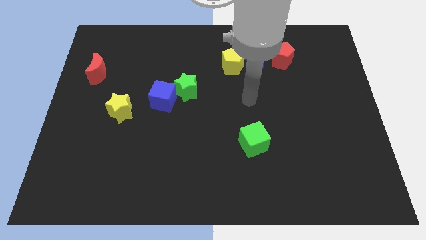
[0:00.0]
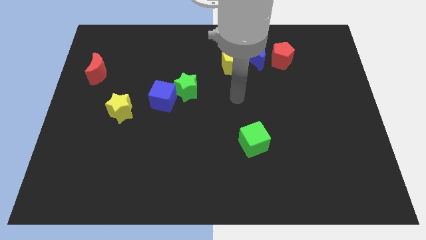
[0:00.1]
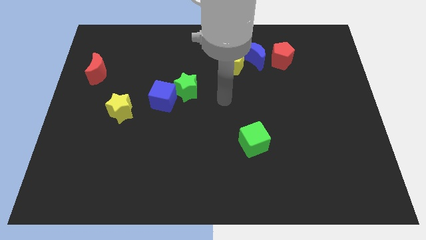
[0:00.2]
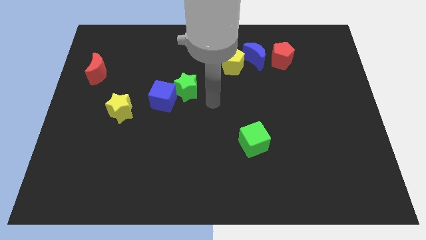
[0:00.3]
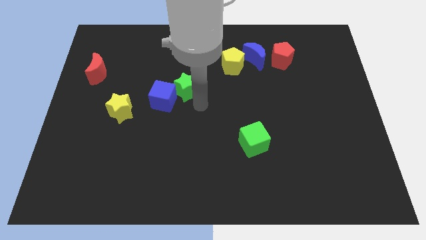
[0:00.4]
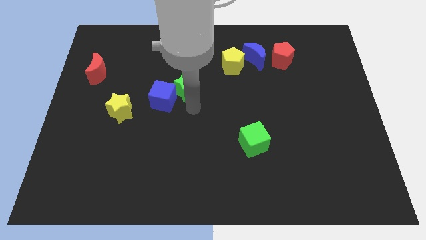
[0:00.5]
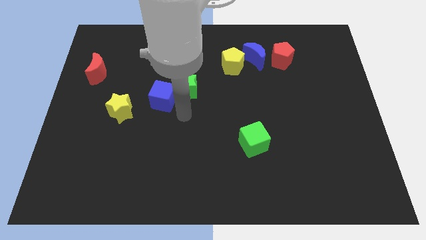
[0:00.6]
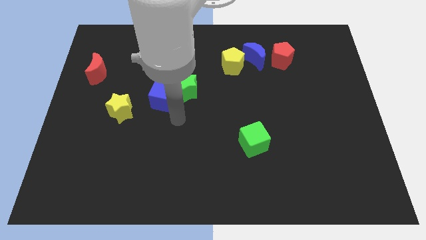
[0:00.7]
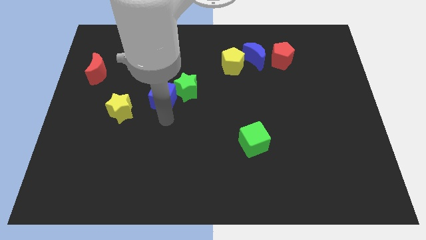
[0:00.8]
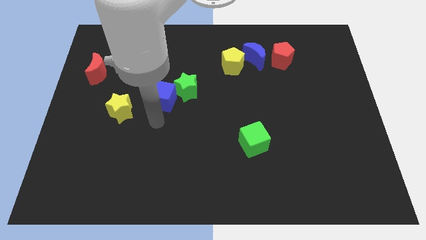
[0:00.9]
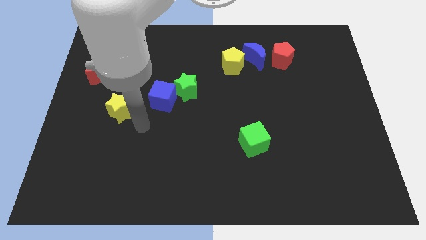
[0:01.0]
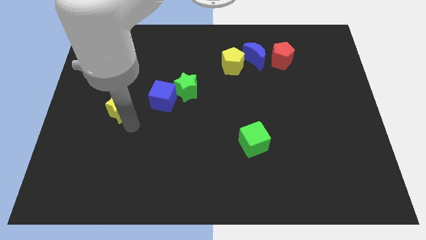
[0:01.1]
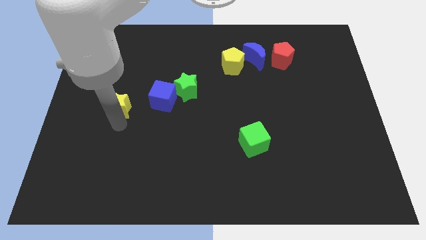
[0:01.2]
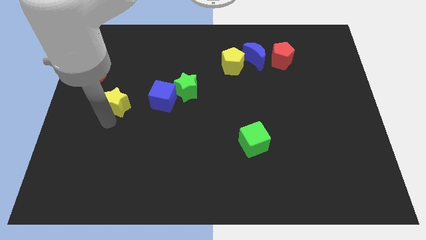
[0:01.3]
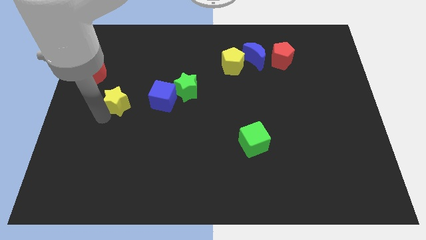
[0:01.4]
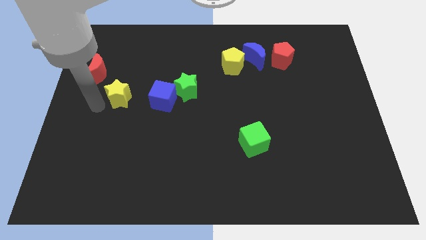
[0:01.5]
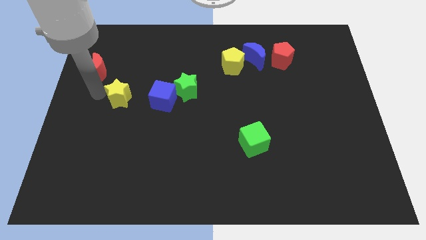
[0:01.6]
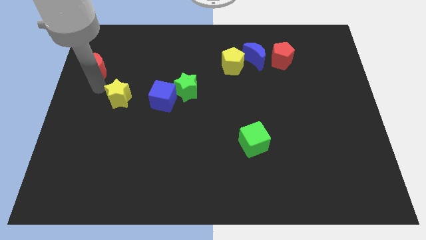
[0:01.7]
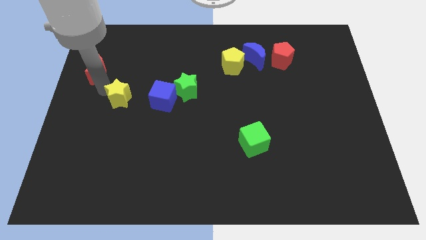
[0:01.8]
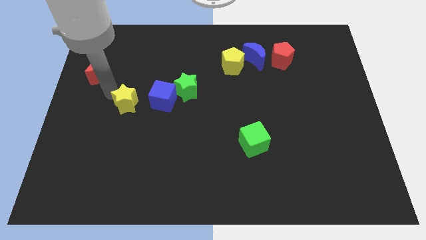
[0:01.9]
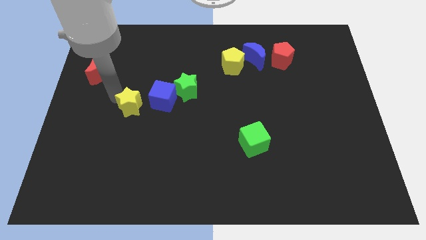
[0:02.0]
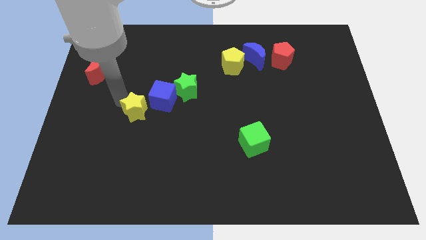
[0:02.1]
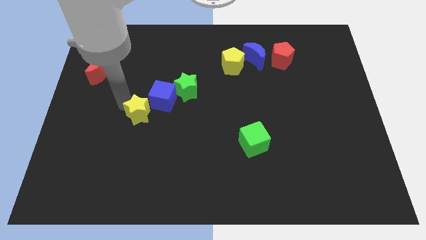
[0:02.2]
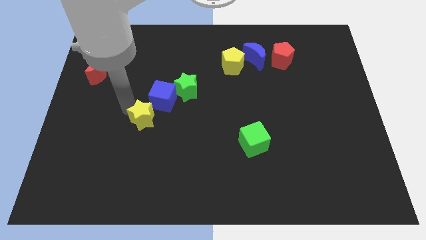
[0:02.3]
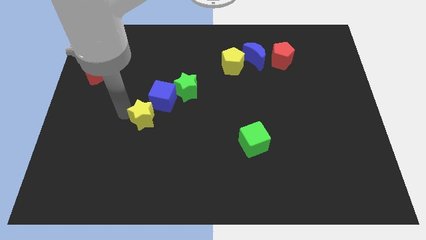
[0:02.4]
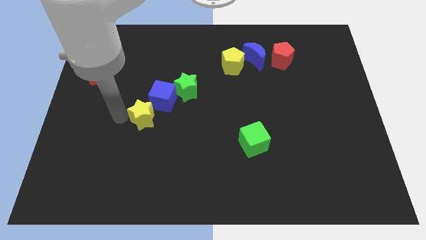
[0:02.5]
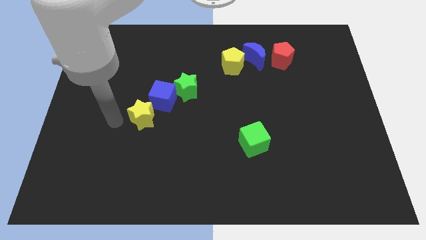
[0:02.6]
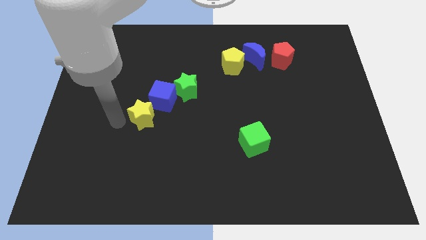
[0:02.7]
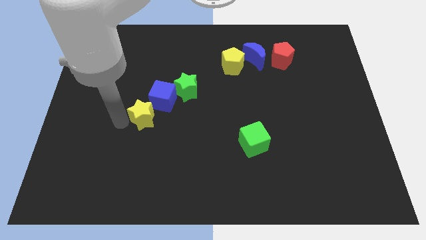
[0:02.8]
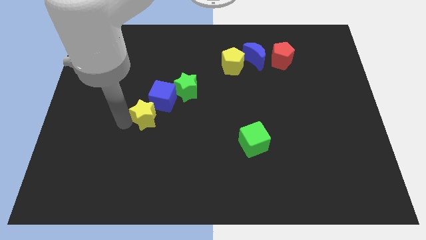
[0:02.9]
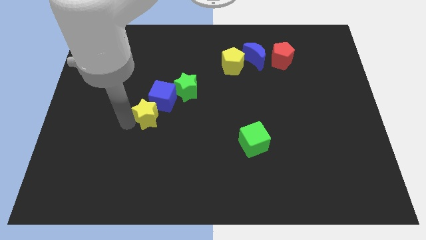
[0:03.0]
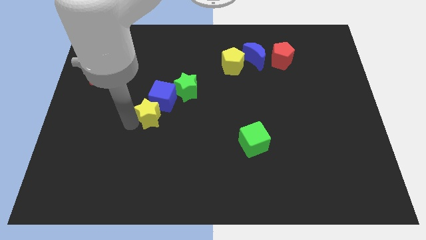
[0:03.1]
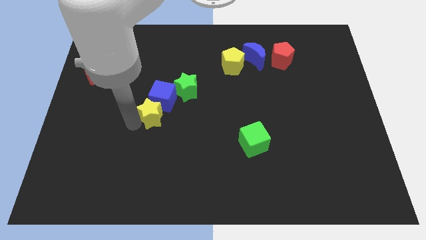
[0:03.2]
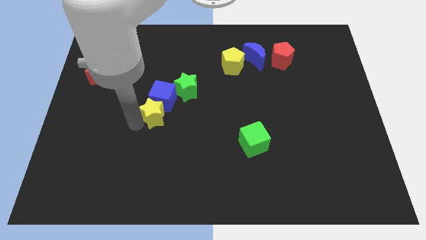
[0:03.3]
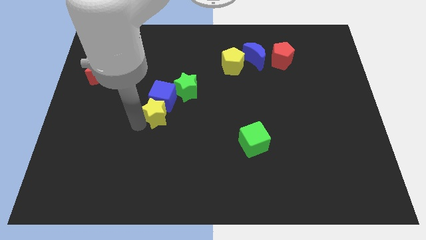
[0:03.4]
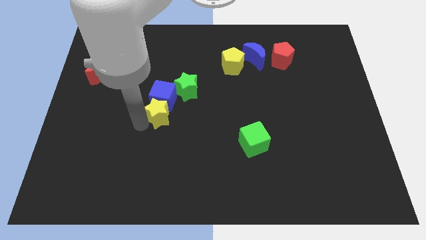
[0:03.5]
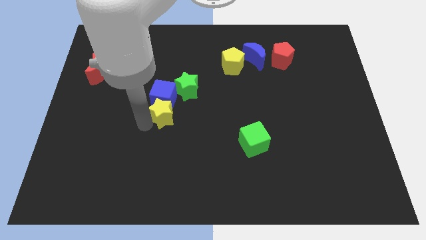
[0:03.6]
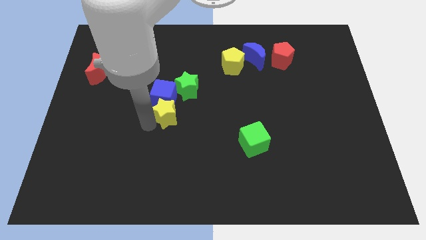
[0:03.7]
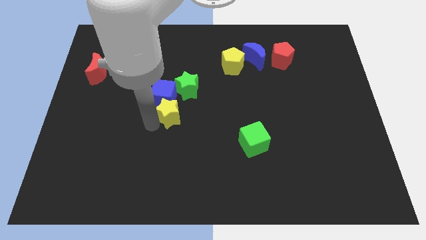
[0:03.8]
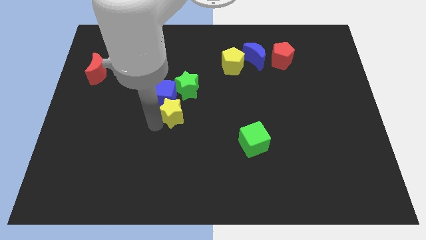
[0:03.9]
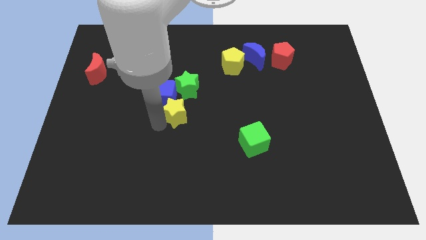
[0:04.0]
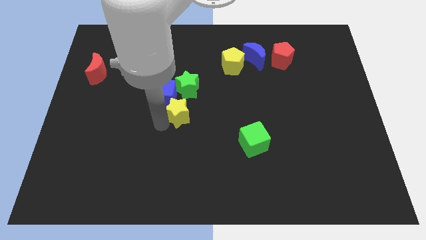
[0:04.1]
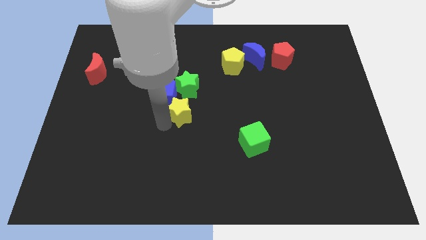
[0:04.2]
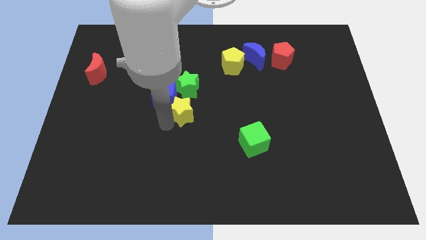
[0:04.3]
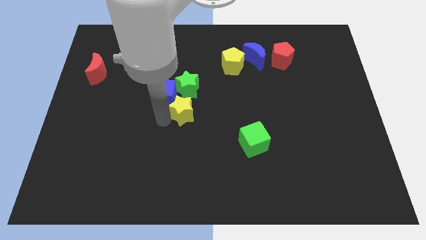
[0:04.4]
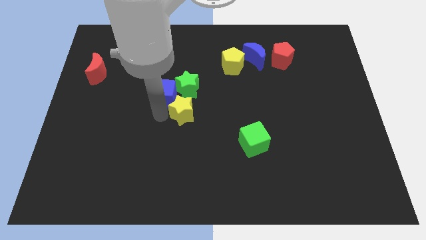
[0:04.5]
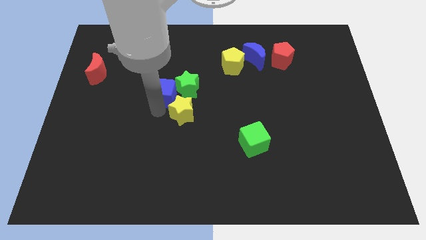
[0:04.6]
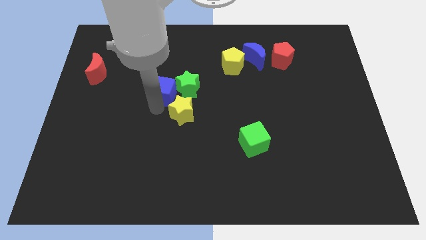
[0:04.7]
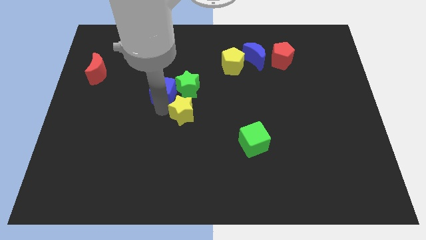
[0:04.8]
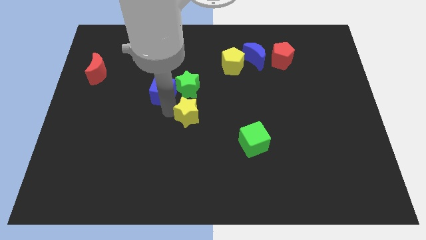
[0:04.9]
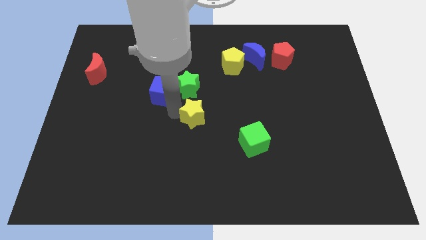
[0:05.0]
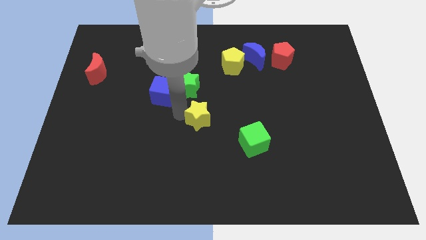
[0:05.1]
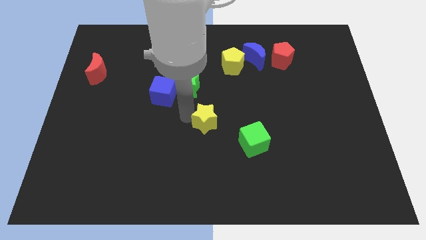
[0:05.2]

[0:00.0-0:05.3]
push the yellow star to the top left of the green cube

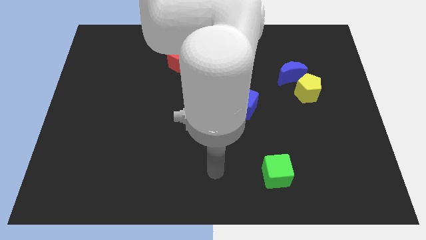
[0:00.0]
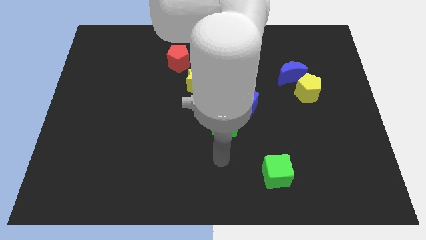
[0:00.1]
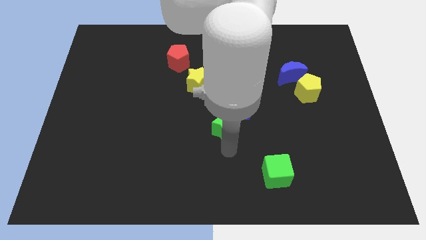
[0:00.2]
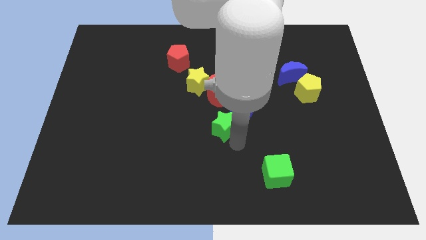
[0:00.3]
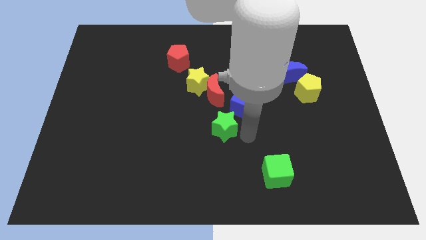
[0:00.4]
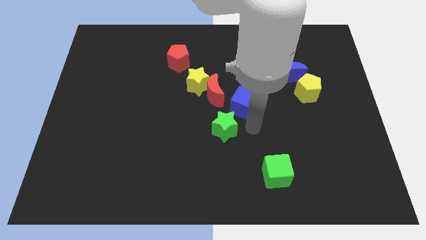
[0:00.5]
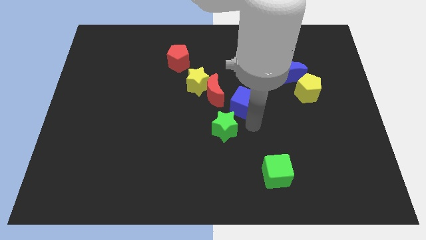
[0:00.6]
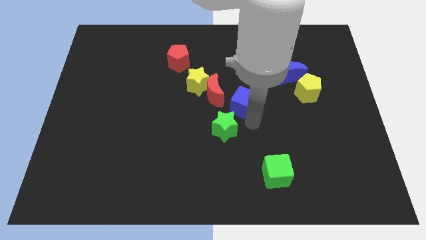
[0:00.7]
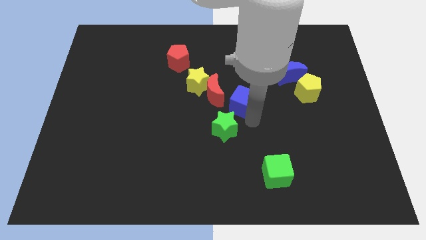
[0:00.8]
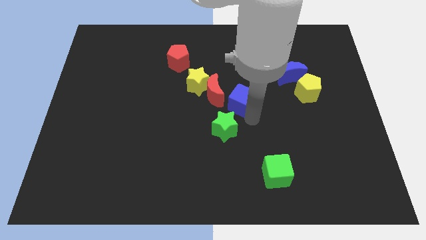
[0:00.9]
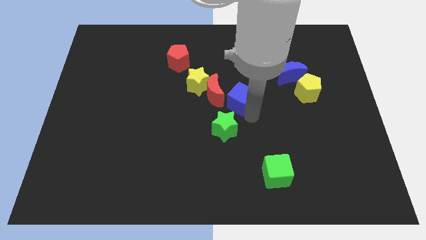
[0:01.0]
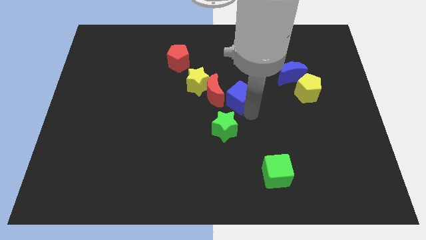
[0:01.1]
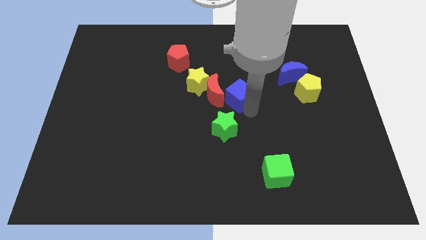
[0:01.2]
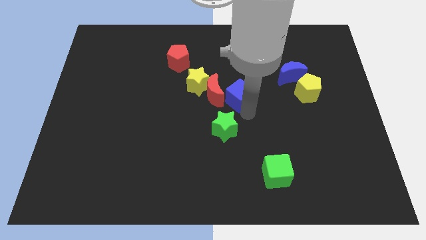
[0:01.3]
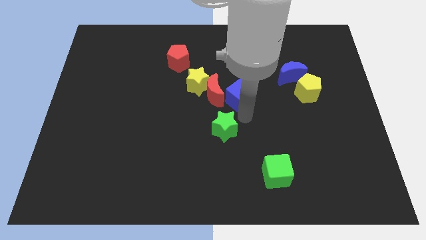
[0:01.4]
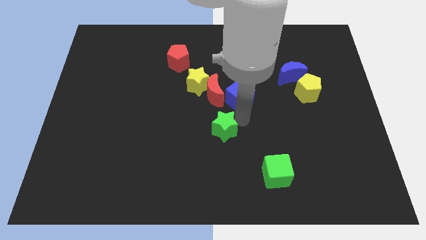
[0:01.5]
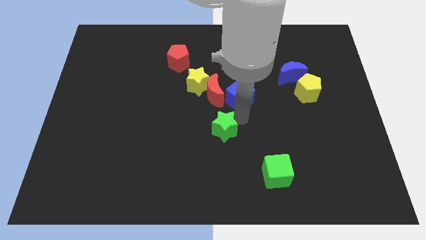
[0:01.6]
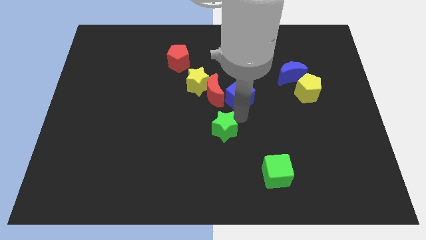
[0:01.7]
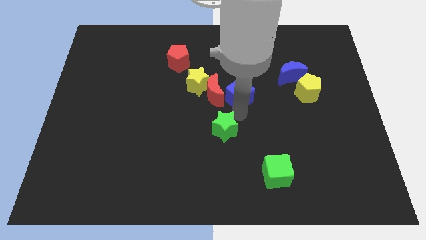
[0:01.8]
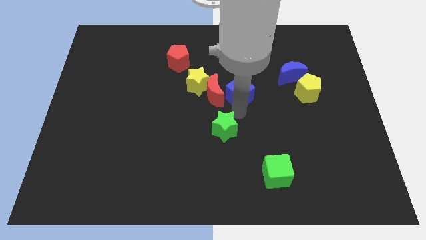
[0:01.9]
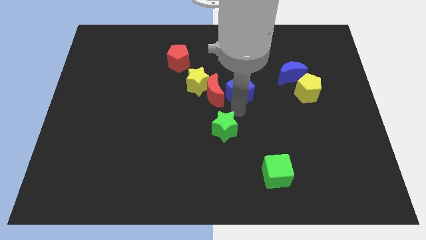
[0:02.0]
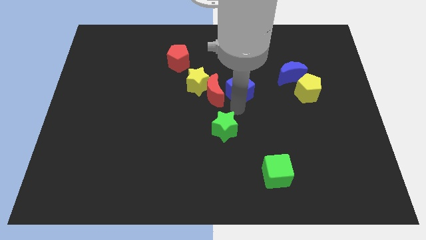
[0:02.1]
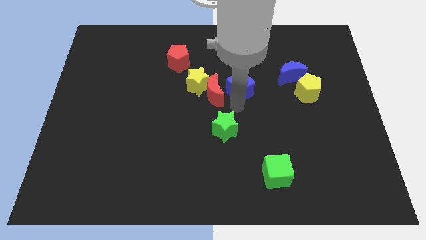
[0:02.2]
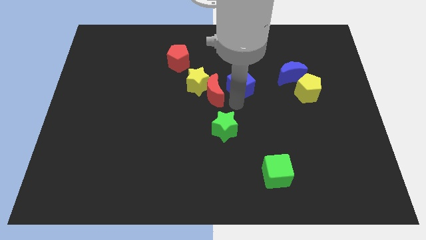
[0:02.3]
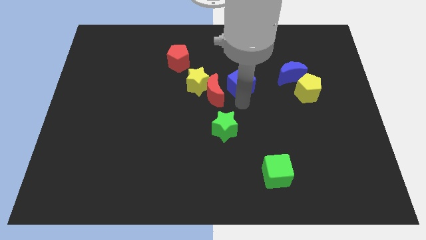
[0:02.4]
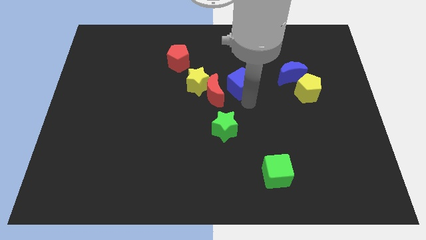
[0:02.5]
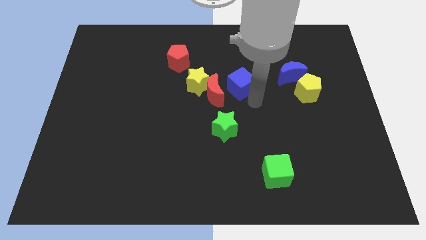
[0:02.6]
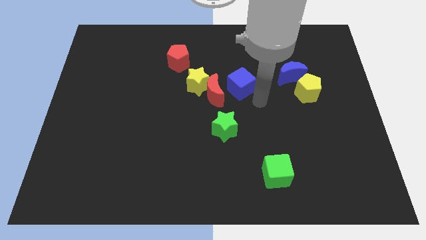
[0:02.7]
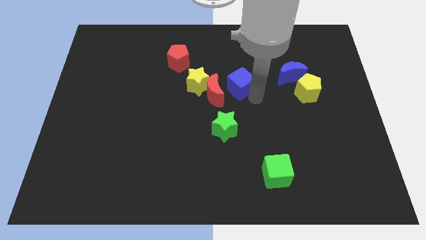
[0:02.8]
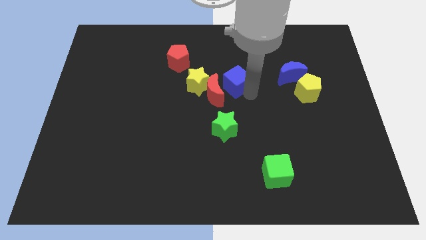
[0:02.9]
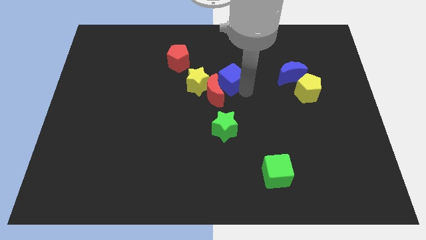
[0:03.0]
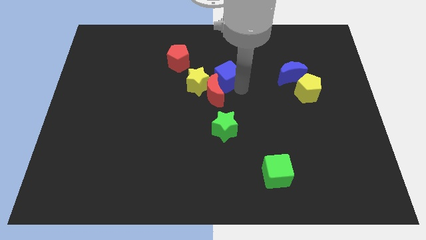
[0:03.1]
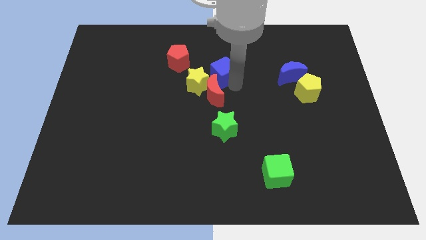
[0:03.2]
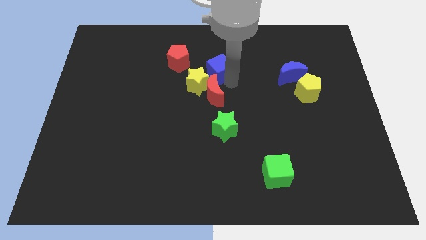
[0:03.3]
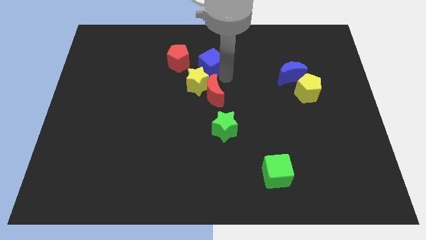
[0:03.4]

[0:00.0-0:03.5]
push the blue cube to the top of the yellow star
